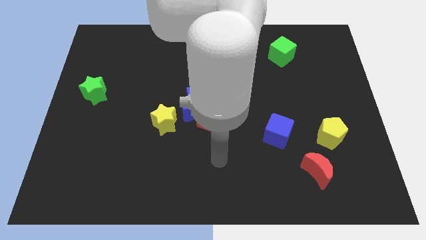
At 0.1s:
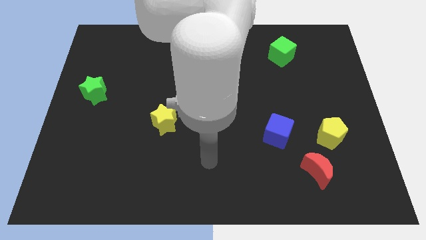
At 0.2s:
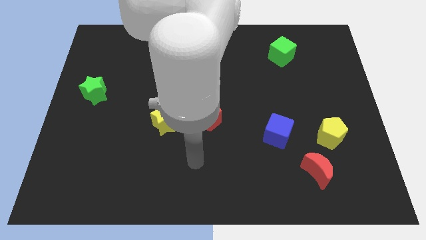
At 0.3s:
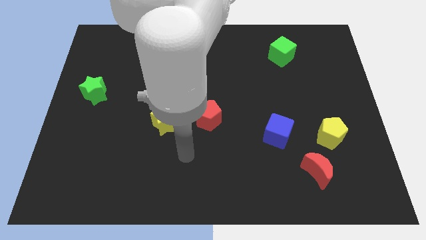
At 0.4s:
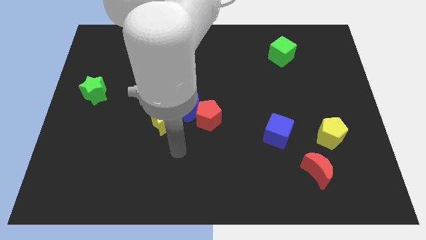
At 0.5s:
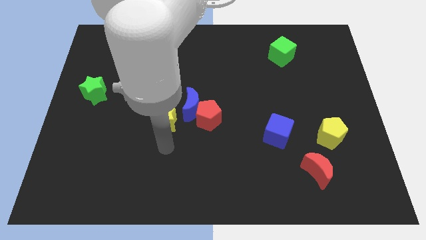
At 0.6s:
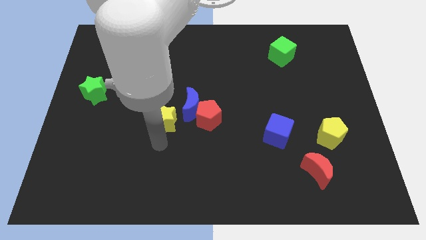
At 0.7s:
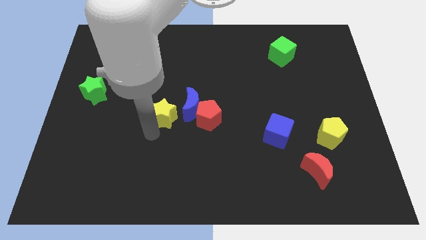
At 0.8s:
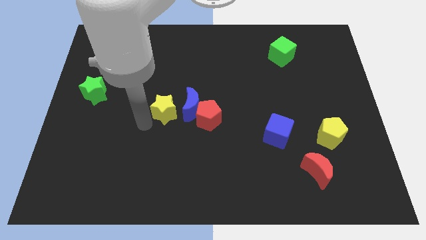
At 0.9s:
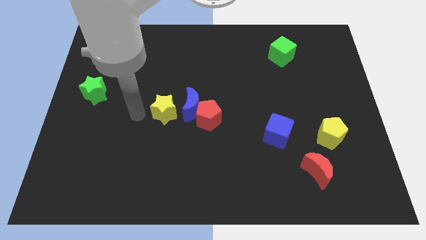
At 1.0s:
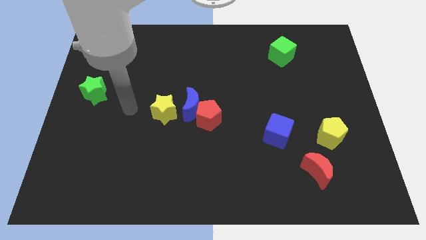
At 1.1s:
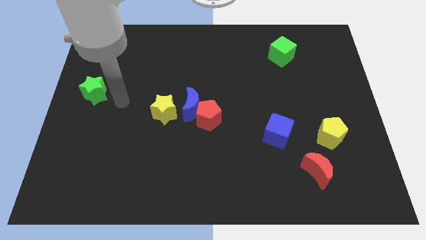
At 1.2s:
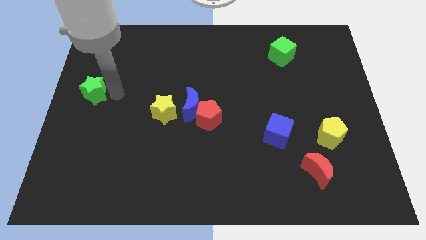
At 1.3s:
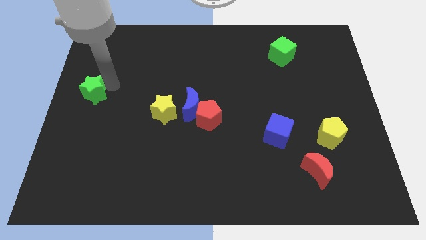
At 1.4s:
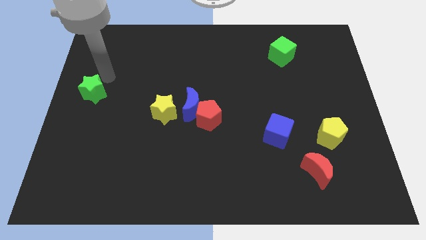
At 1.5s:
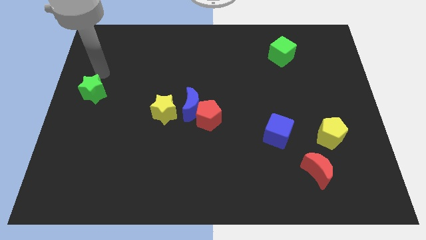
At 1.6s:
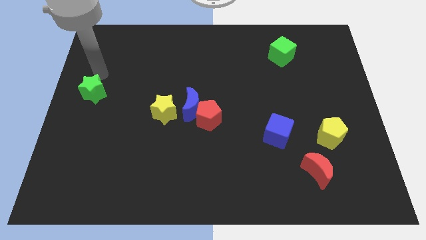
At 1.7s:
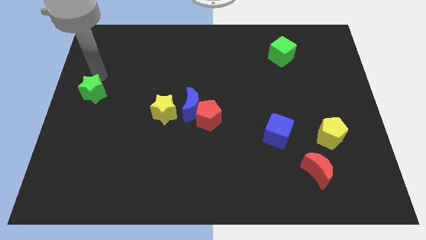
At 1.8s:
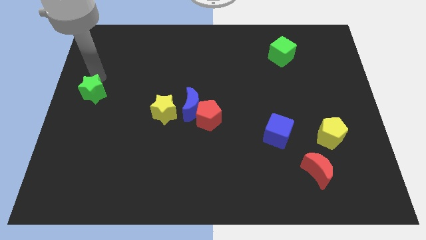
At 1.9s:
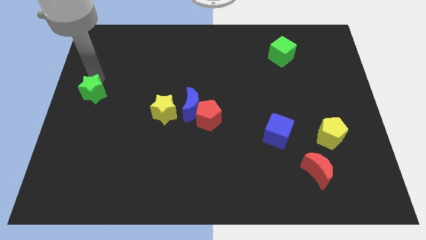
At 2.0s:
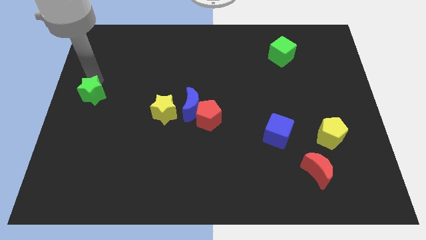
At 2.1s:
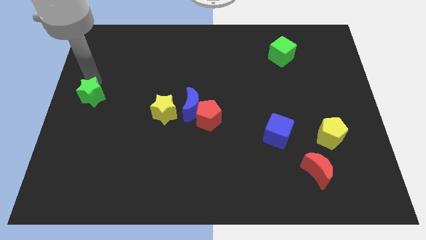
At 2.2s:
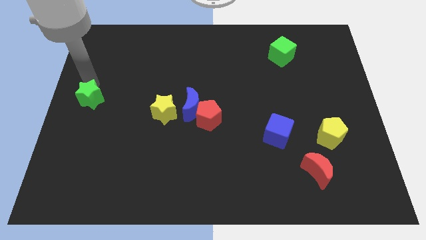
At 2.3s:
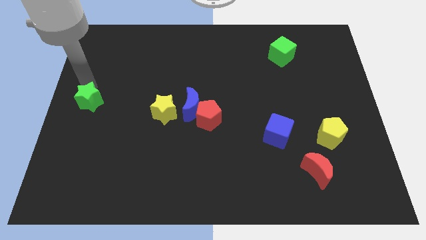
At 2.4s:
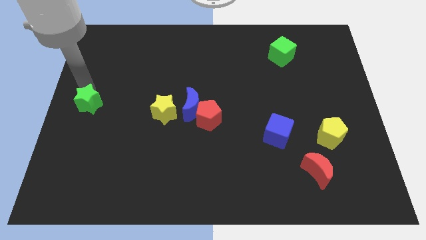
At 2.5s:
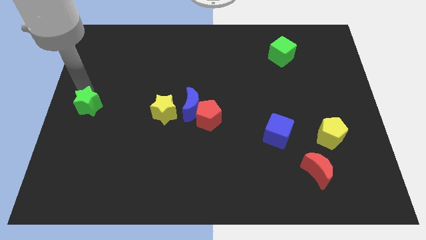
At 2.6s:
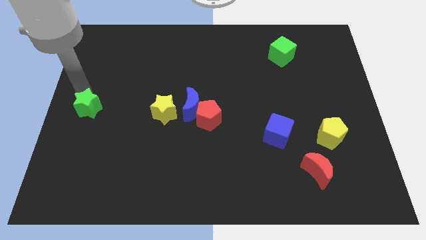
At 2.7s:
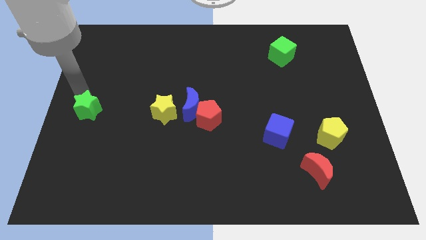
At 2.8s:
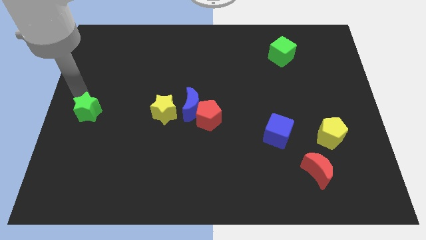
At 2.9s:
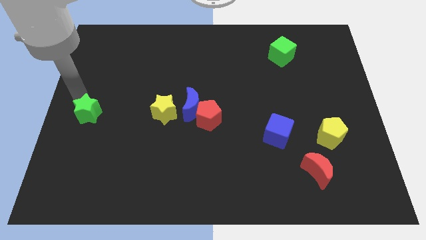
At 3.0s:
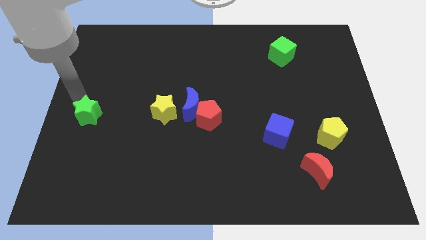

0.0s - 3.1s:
slightly slide the green star down

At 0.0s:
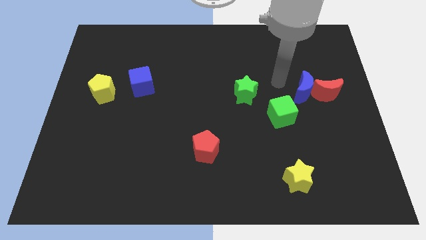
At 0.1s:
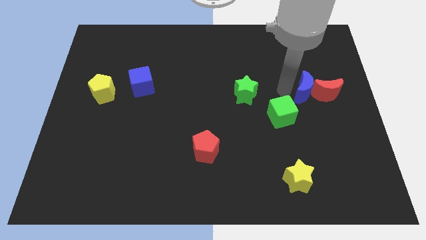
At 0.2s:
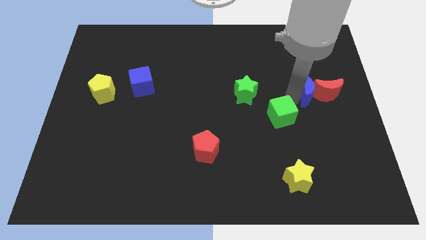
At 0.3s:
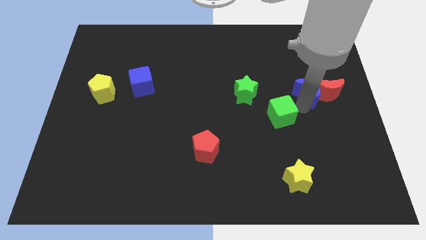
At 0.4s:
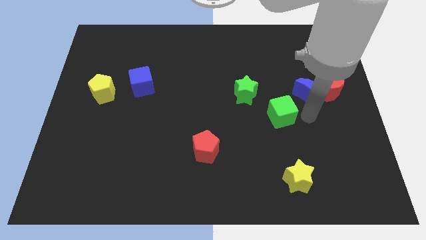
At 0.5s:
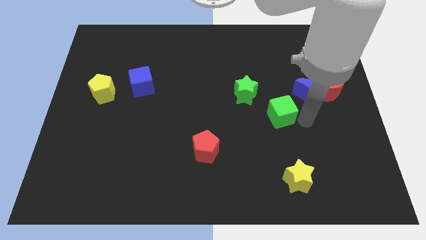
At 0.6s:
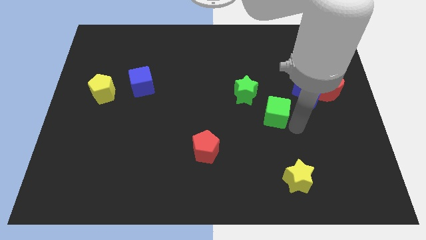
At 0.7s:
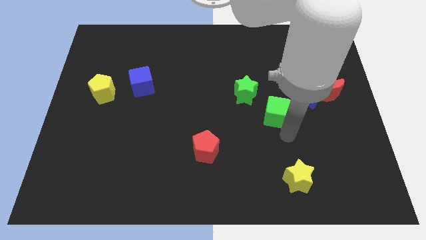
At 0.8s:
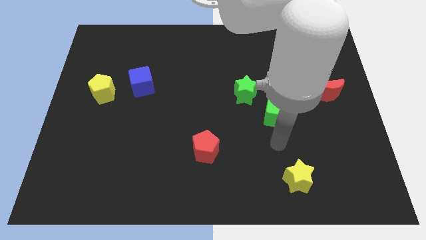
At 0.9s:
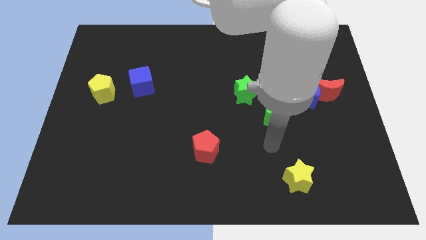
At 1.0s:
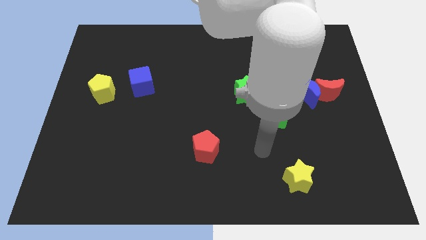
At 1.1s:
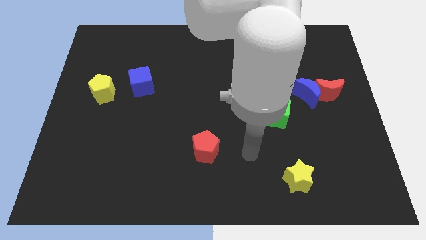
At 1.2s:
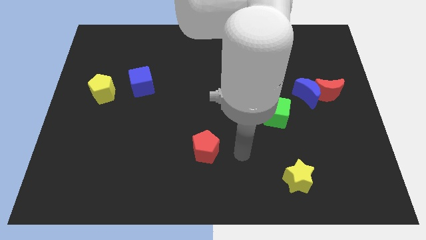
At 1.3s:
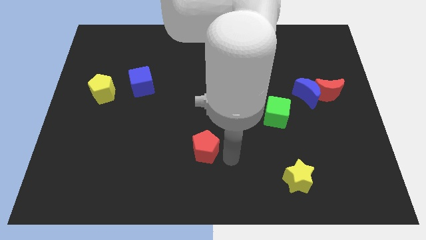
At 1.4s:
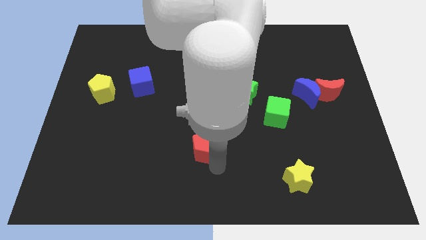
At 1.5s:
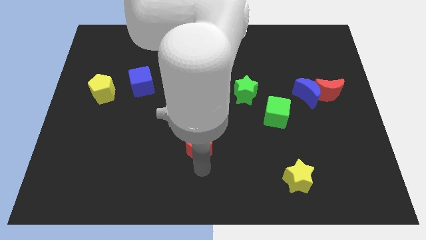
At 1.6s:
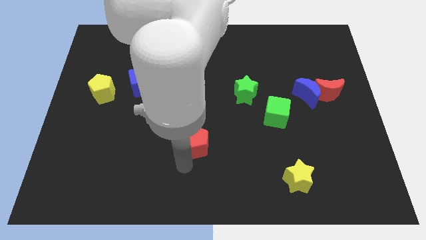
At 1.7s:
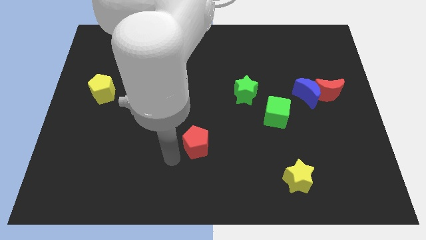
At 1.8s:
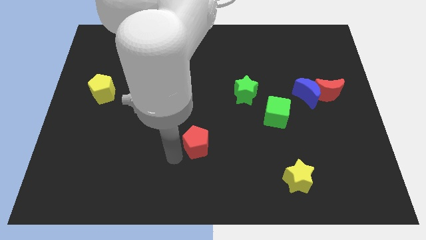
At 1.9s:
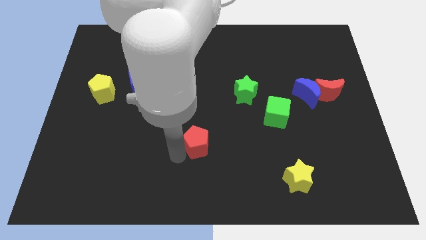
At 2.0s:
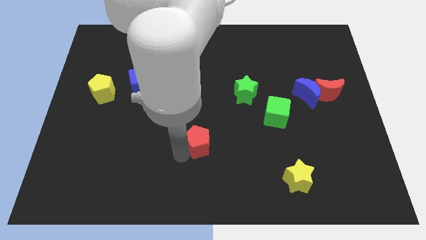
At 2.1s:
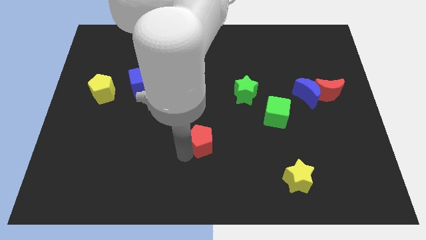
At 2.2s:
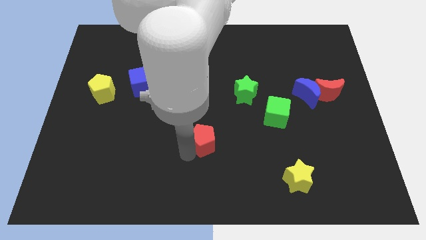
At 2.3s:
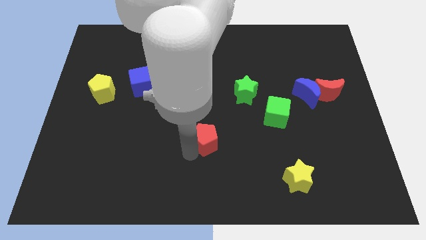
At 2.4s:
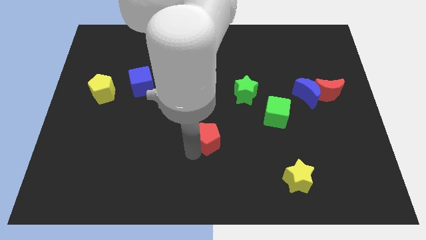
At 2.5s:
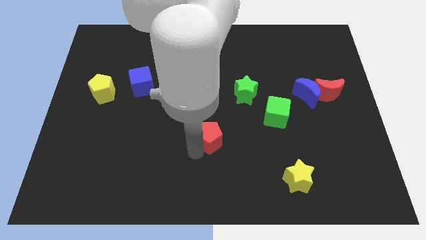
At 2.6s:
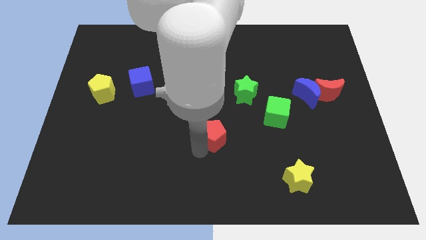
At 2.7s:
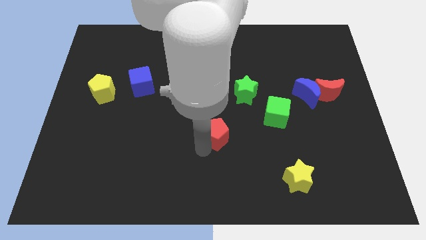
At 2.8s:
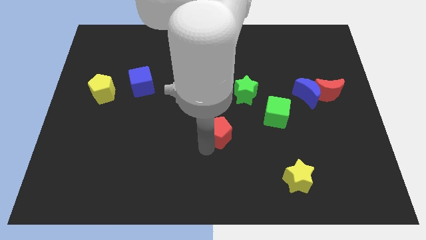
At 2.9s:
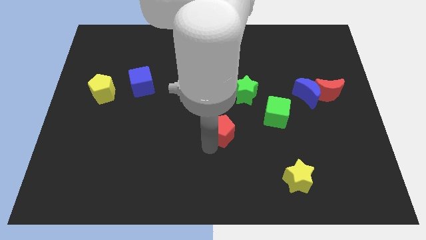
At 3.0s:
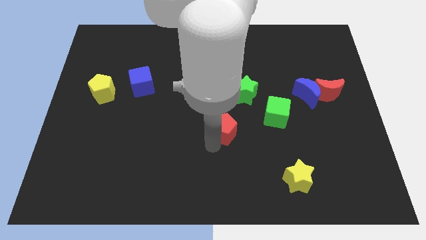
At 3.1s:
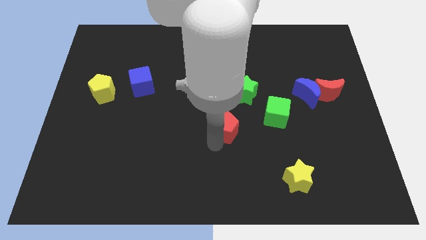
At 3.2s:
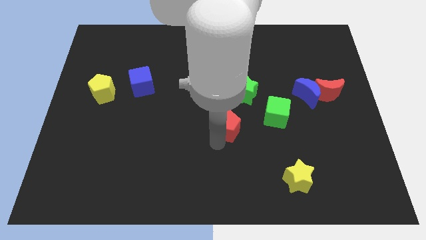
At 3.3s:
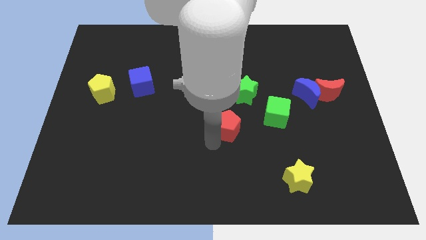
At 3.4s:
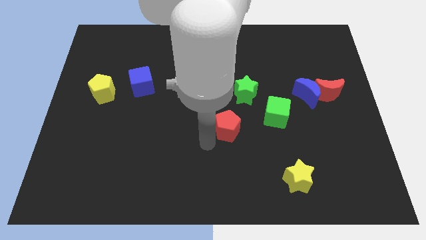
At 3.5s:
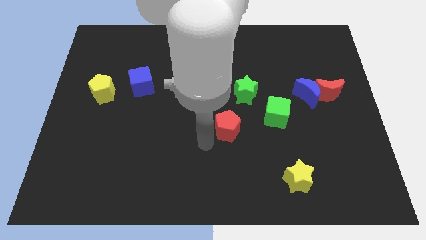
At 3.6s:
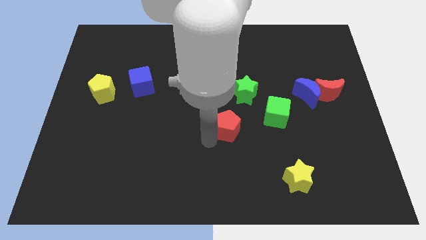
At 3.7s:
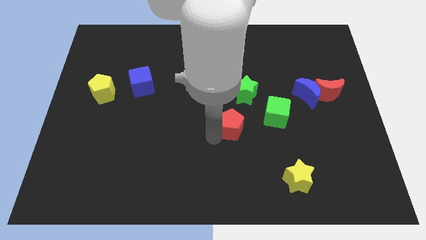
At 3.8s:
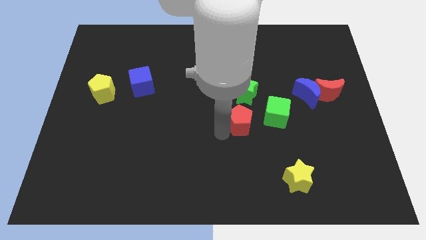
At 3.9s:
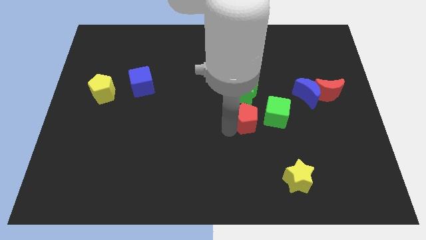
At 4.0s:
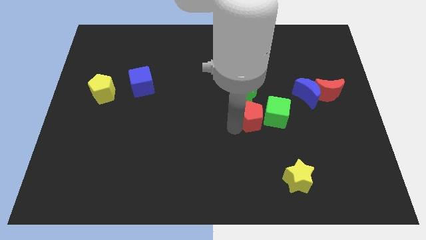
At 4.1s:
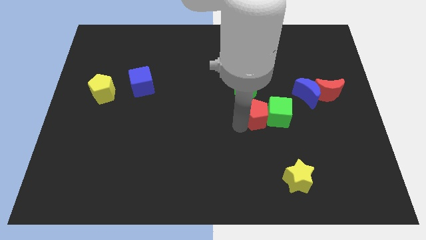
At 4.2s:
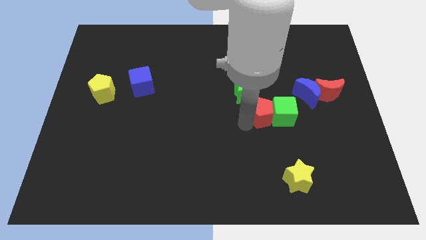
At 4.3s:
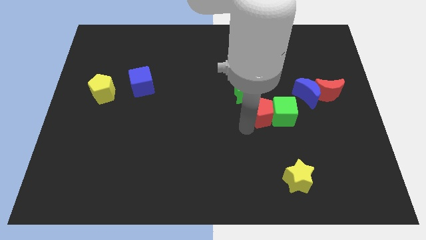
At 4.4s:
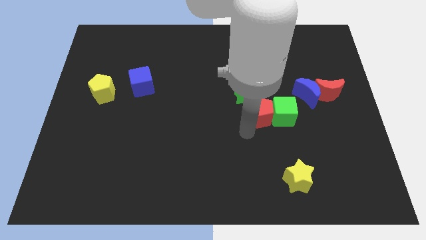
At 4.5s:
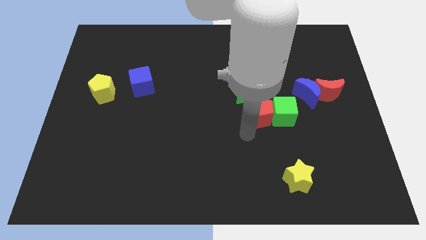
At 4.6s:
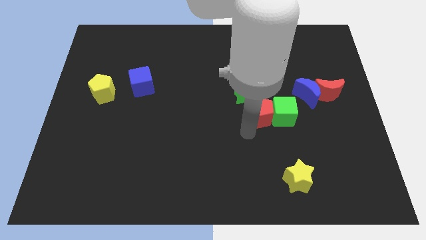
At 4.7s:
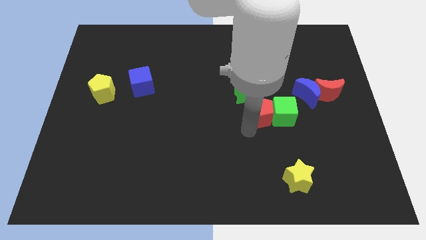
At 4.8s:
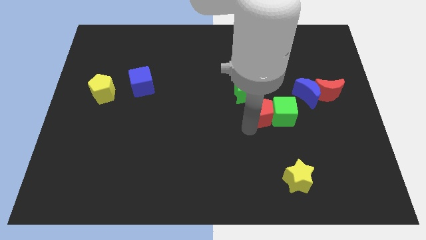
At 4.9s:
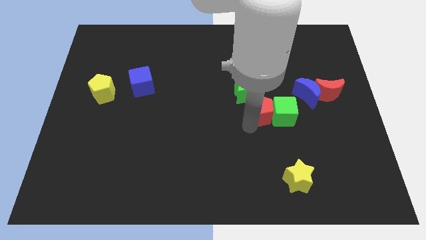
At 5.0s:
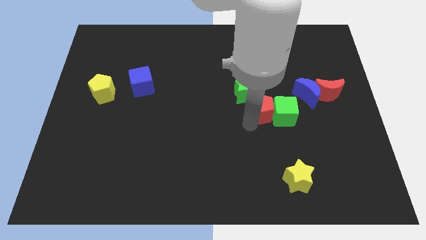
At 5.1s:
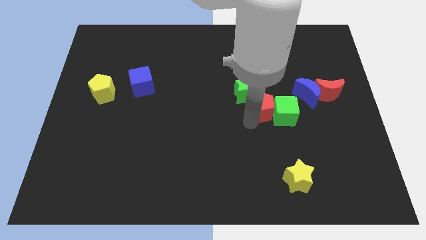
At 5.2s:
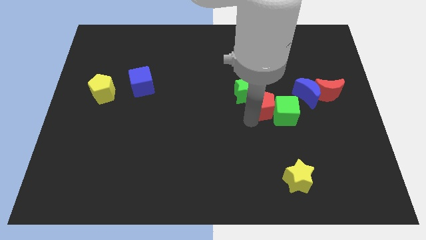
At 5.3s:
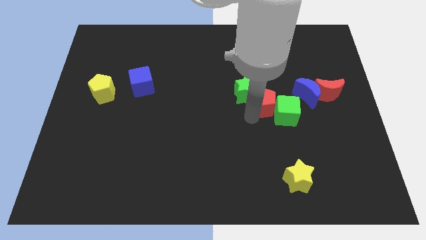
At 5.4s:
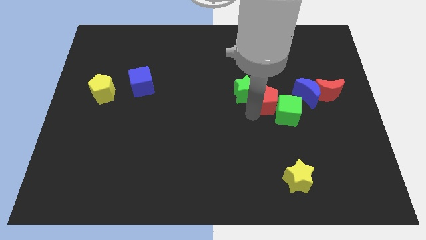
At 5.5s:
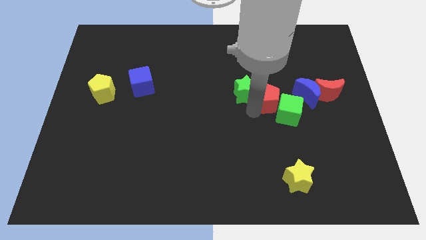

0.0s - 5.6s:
push the red pentagon up and to the right diagonally
